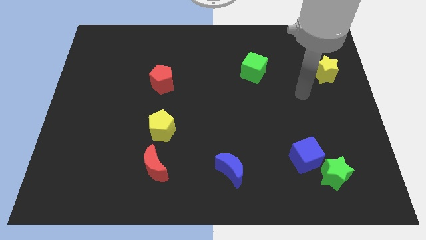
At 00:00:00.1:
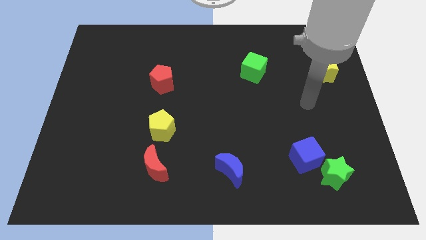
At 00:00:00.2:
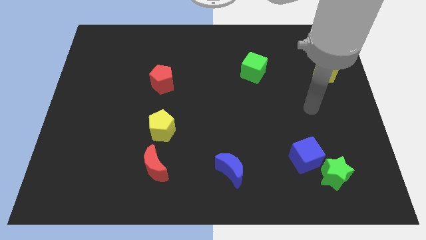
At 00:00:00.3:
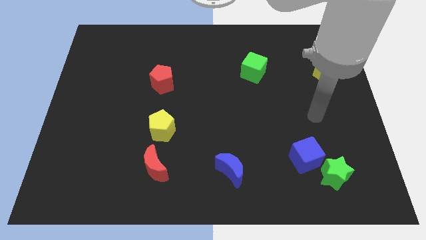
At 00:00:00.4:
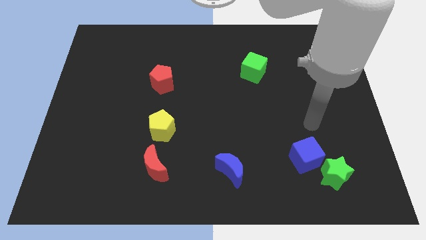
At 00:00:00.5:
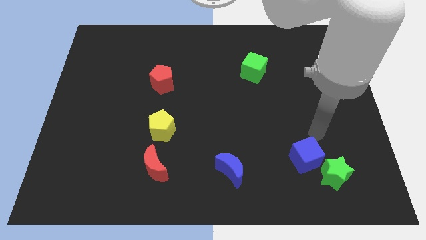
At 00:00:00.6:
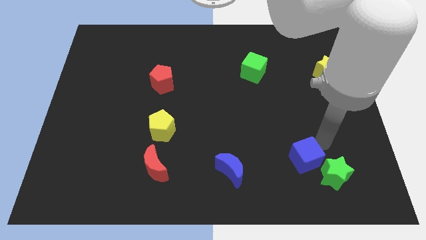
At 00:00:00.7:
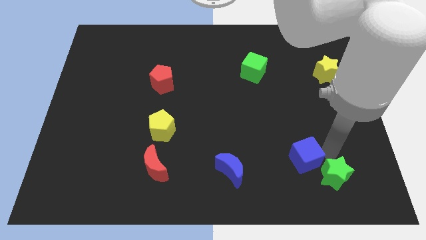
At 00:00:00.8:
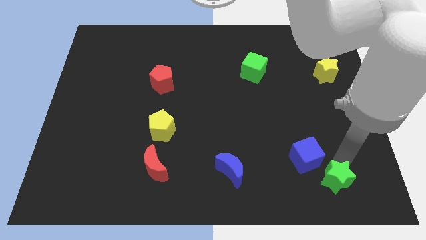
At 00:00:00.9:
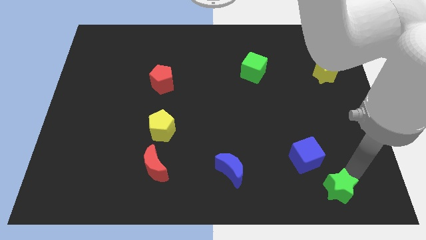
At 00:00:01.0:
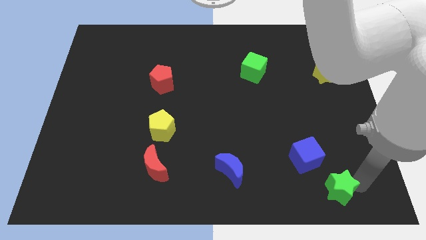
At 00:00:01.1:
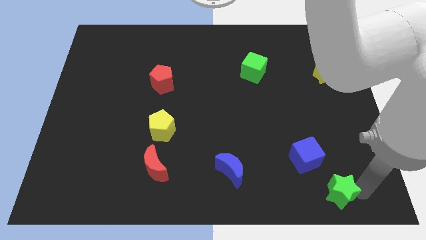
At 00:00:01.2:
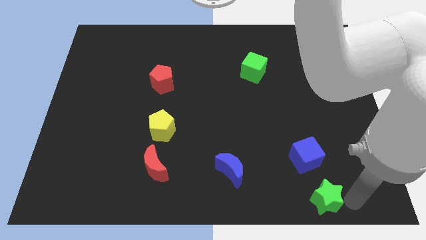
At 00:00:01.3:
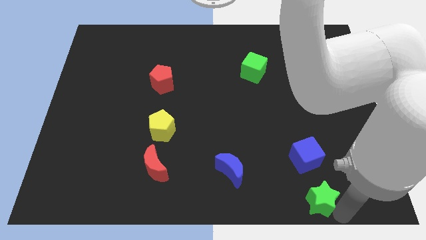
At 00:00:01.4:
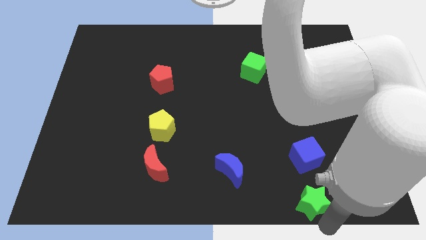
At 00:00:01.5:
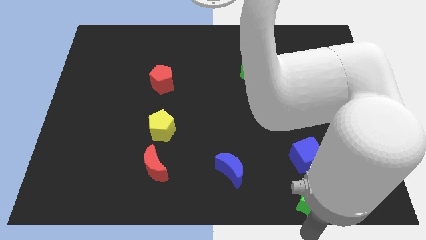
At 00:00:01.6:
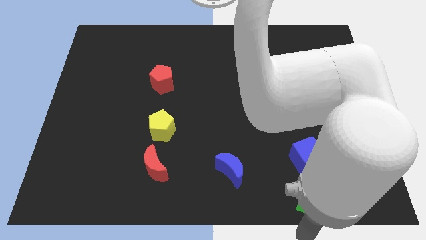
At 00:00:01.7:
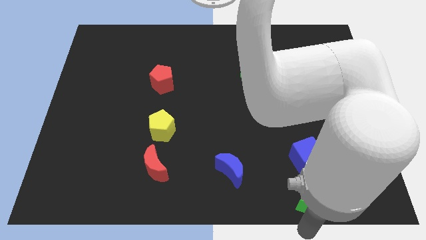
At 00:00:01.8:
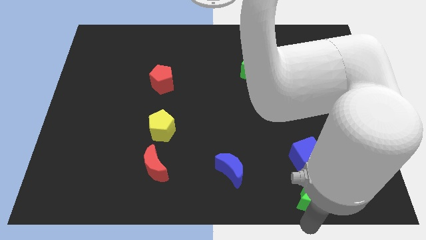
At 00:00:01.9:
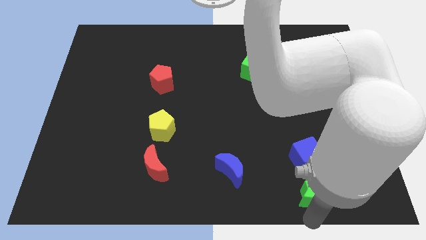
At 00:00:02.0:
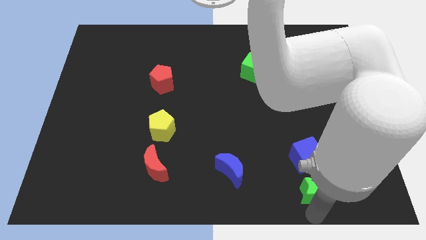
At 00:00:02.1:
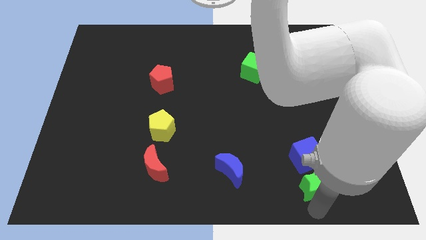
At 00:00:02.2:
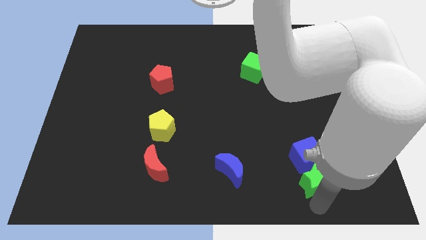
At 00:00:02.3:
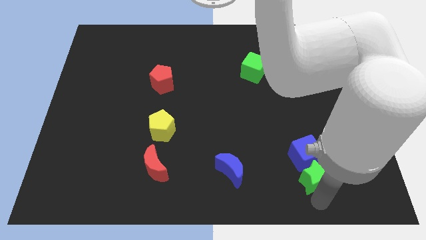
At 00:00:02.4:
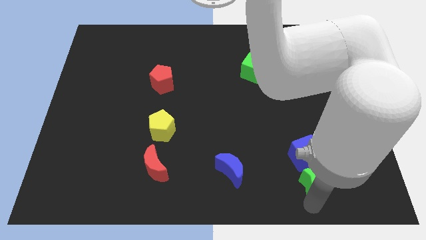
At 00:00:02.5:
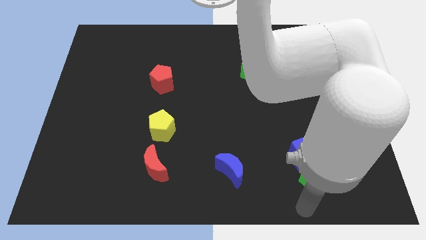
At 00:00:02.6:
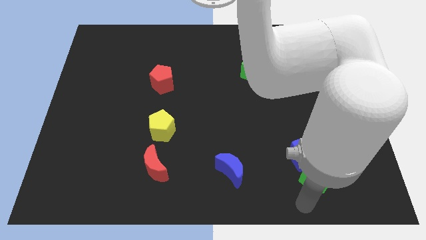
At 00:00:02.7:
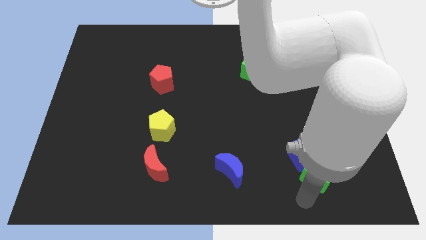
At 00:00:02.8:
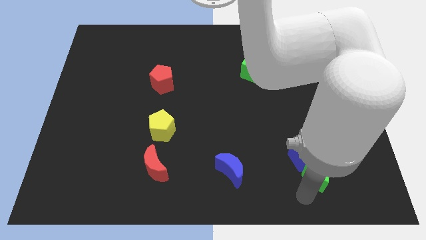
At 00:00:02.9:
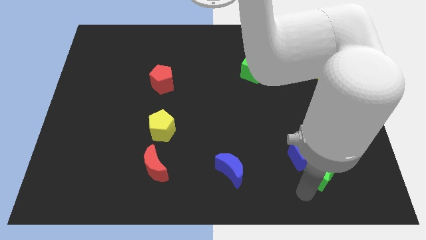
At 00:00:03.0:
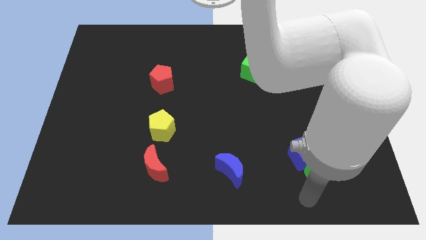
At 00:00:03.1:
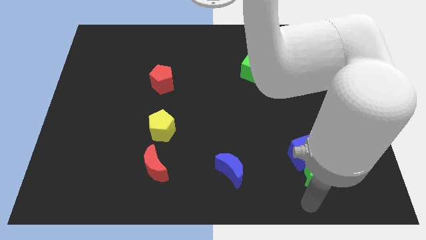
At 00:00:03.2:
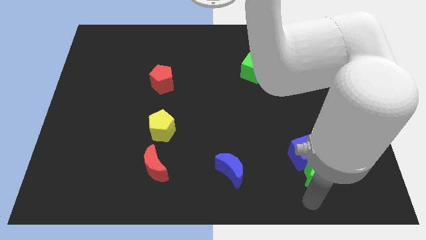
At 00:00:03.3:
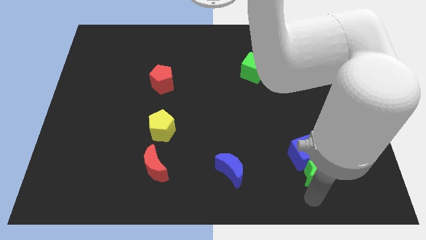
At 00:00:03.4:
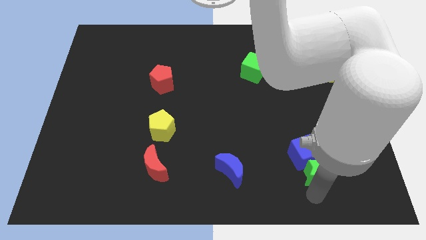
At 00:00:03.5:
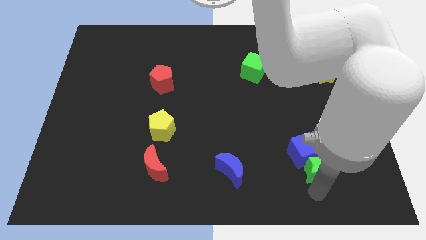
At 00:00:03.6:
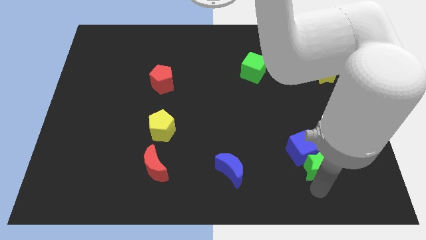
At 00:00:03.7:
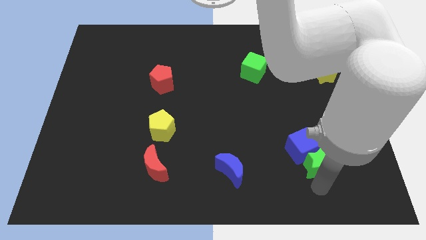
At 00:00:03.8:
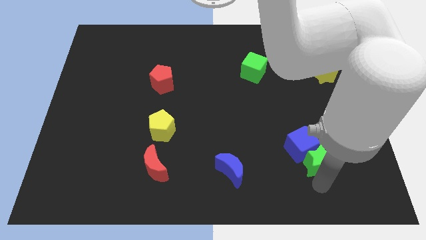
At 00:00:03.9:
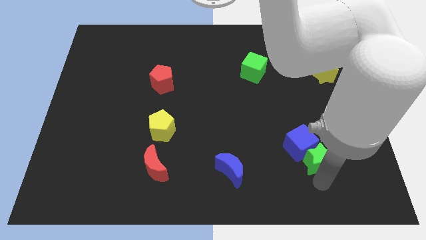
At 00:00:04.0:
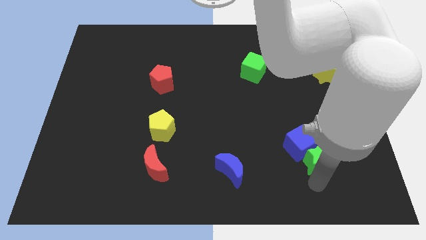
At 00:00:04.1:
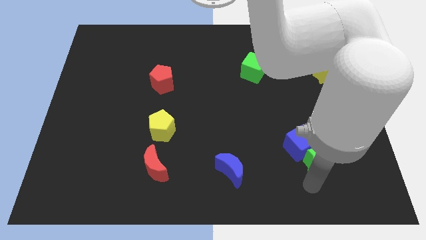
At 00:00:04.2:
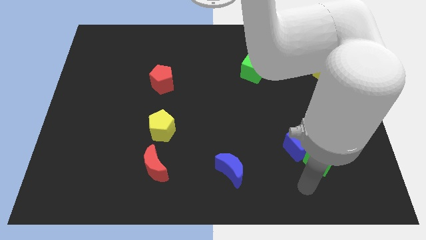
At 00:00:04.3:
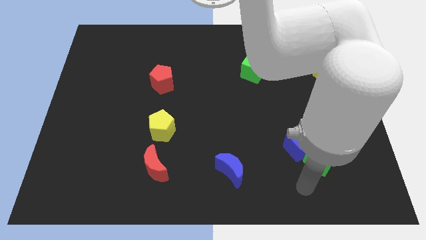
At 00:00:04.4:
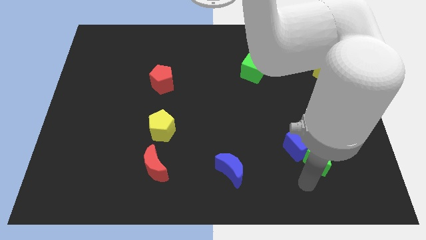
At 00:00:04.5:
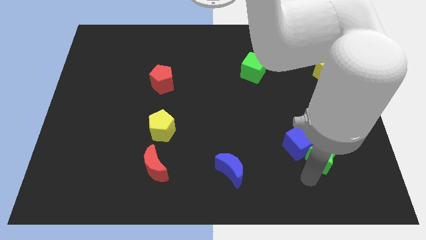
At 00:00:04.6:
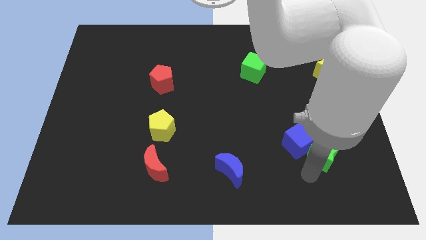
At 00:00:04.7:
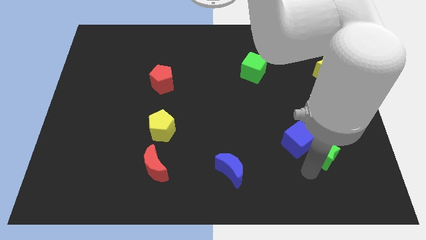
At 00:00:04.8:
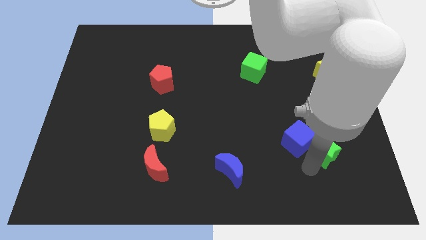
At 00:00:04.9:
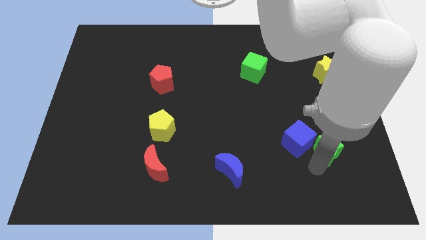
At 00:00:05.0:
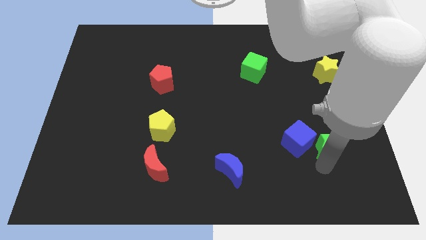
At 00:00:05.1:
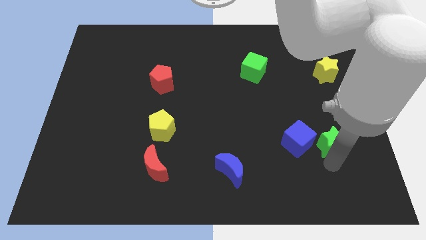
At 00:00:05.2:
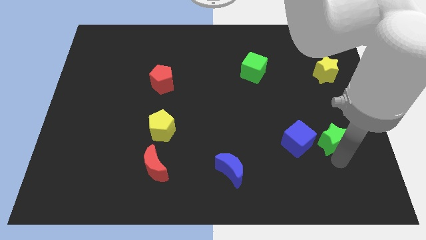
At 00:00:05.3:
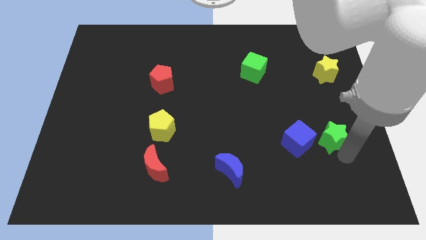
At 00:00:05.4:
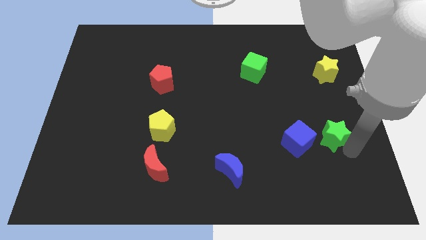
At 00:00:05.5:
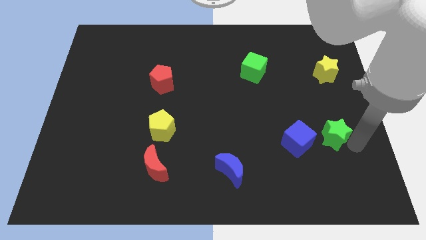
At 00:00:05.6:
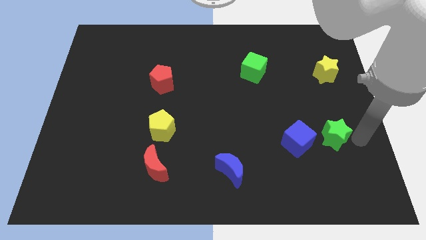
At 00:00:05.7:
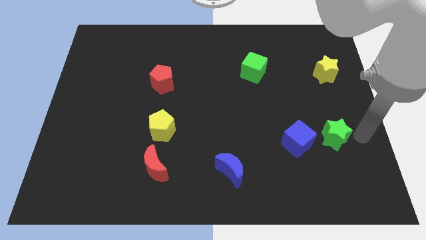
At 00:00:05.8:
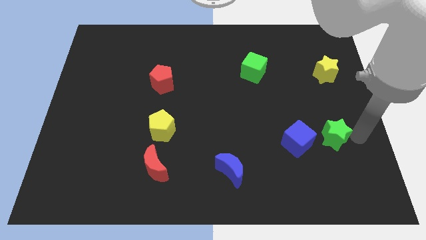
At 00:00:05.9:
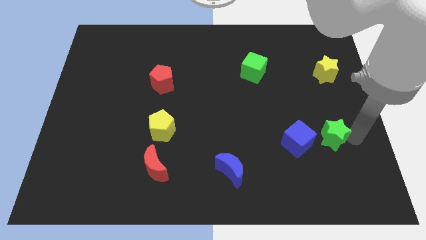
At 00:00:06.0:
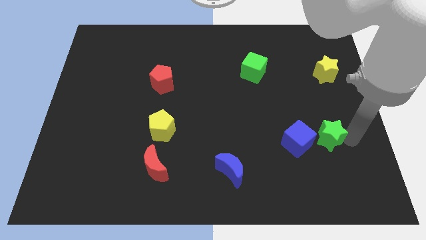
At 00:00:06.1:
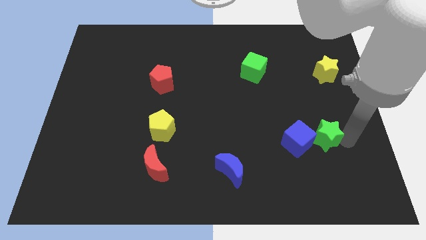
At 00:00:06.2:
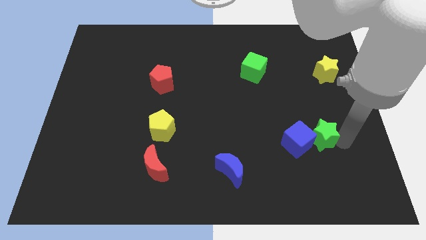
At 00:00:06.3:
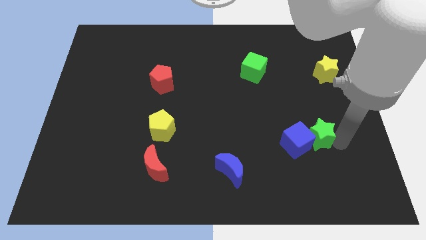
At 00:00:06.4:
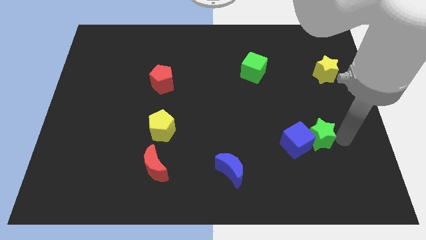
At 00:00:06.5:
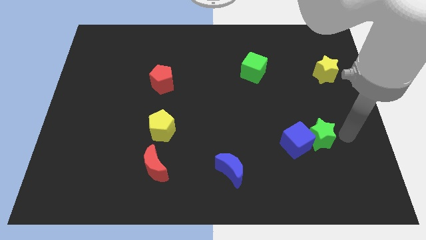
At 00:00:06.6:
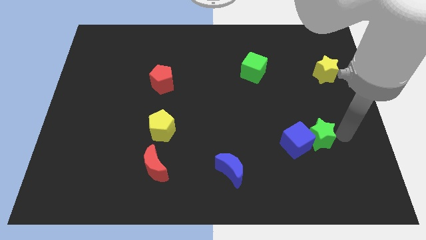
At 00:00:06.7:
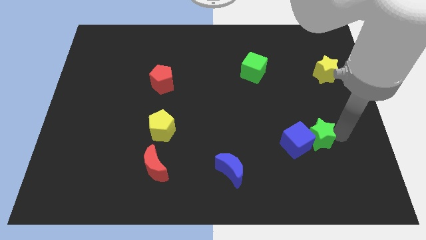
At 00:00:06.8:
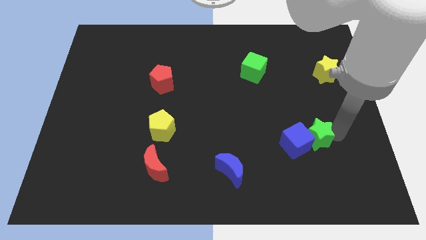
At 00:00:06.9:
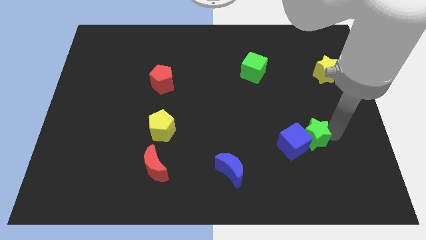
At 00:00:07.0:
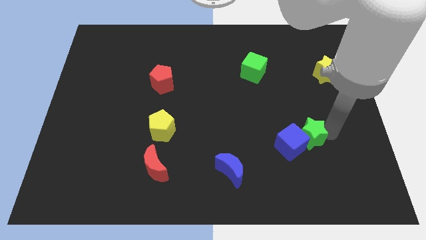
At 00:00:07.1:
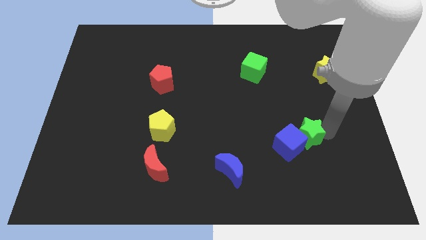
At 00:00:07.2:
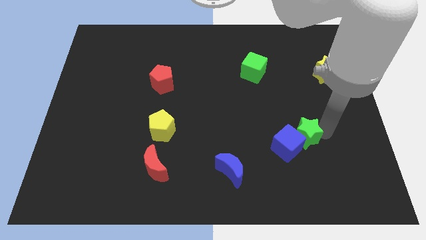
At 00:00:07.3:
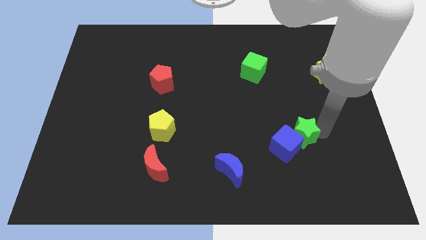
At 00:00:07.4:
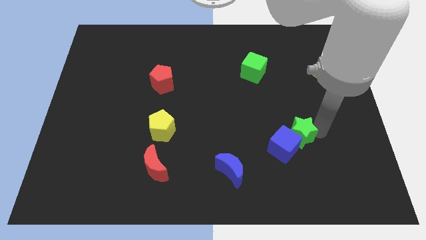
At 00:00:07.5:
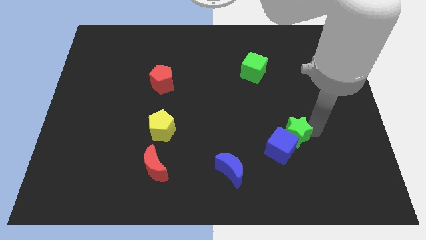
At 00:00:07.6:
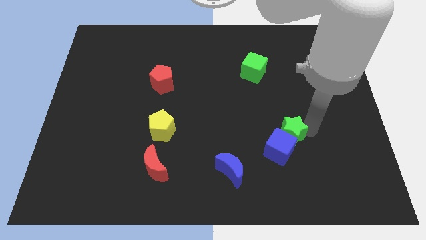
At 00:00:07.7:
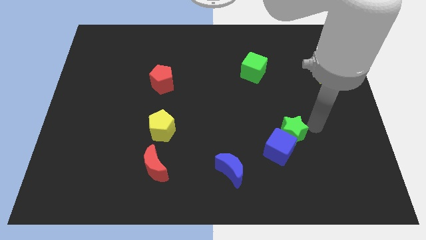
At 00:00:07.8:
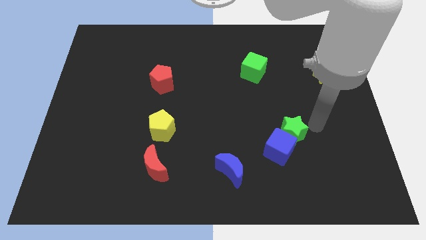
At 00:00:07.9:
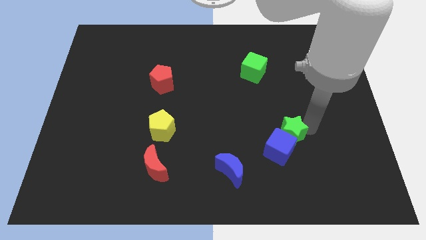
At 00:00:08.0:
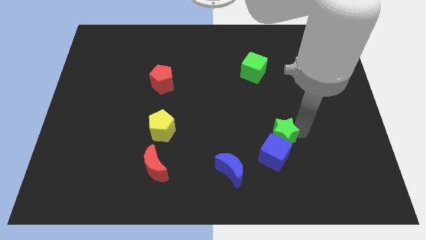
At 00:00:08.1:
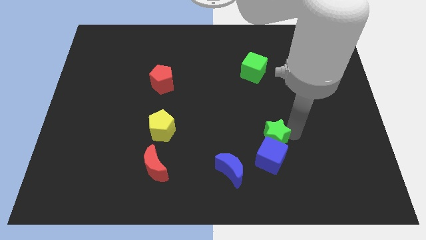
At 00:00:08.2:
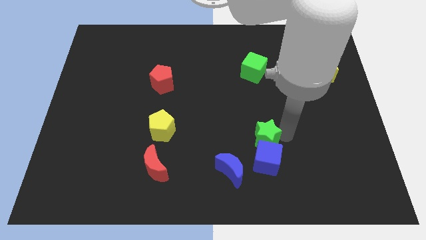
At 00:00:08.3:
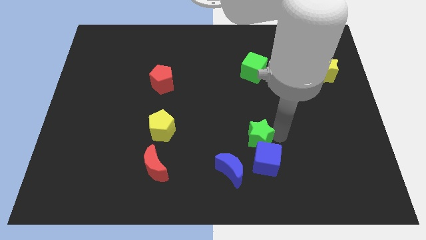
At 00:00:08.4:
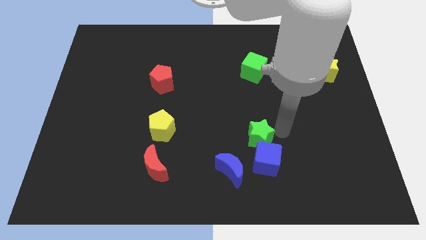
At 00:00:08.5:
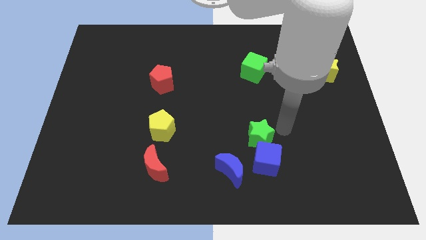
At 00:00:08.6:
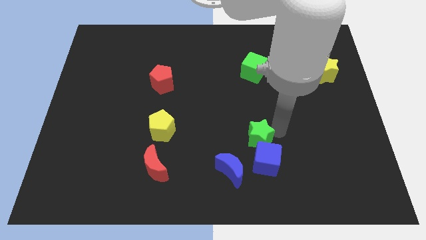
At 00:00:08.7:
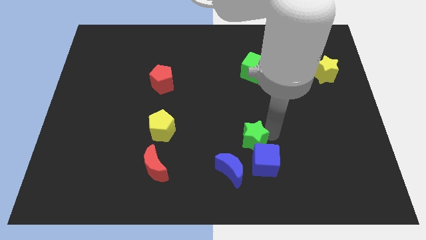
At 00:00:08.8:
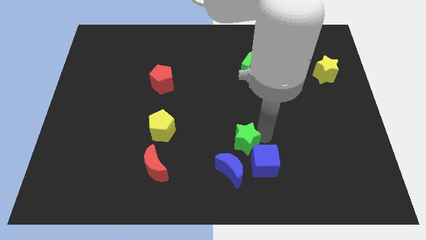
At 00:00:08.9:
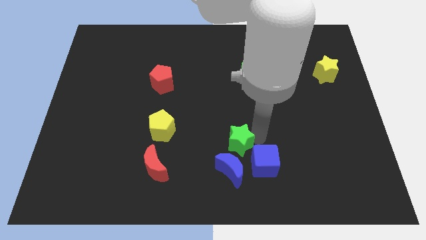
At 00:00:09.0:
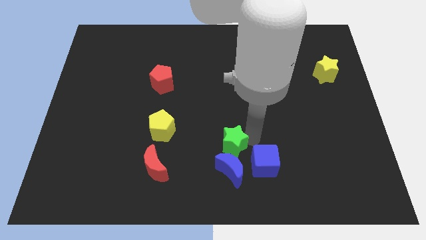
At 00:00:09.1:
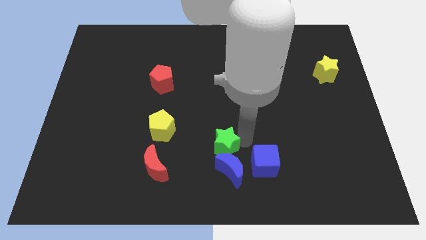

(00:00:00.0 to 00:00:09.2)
slide the green star left
